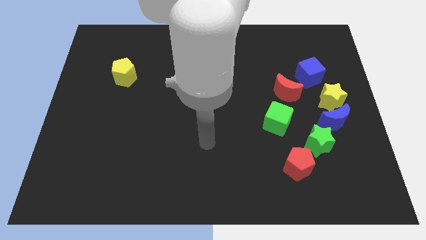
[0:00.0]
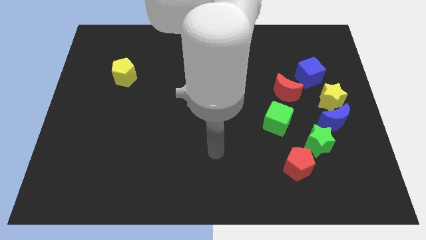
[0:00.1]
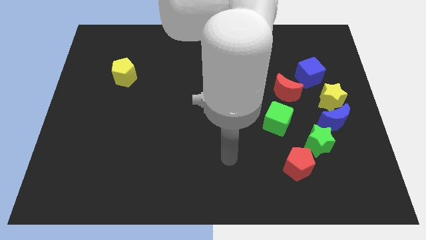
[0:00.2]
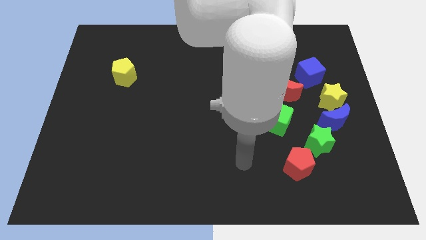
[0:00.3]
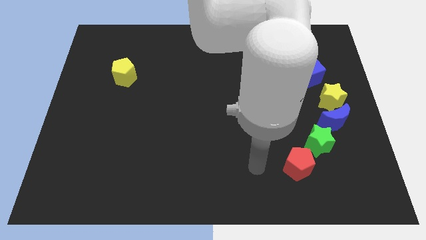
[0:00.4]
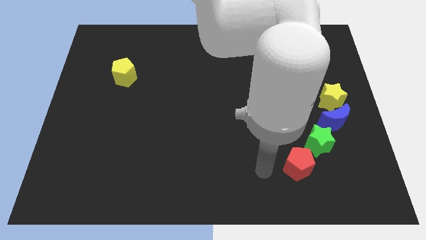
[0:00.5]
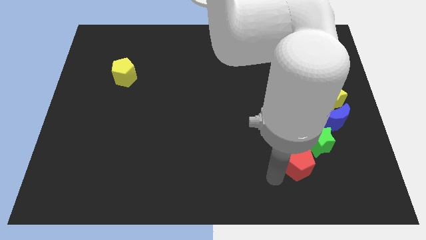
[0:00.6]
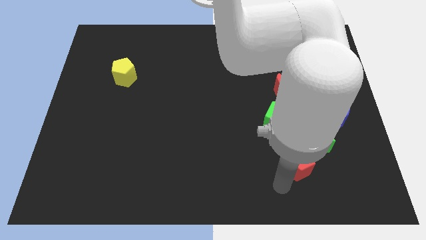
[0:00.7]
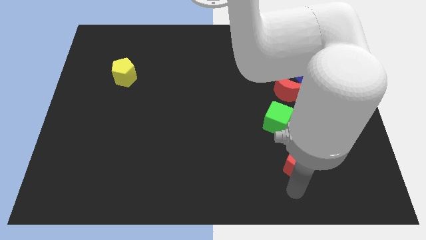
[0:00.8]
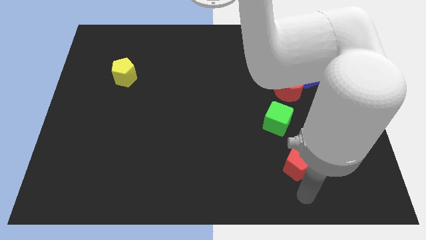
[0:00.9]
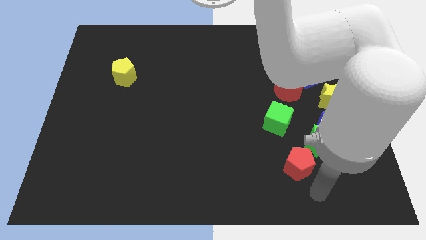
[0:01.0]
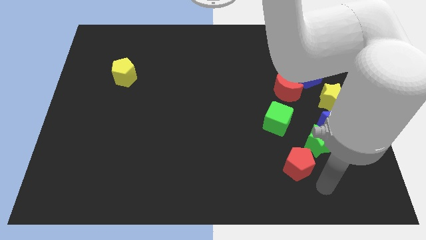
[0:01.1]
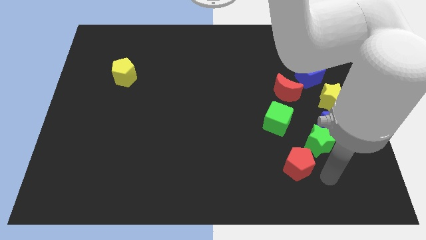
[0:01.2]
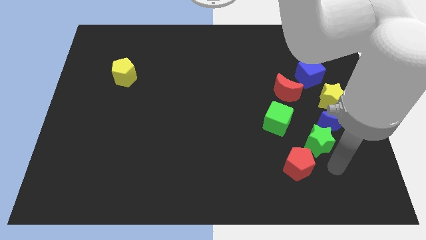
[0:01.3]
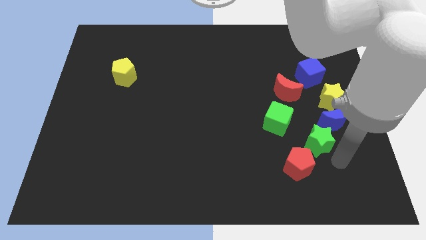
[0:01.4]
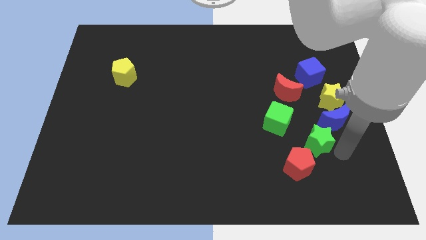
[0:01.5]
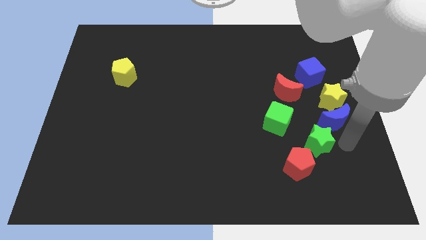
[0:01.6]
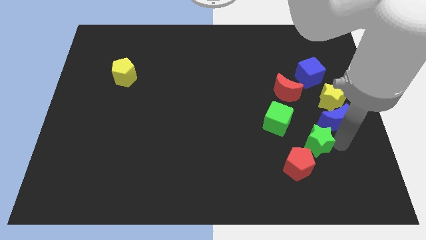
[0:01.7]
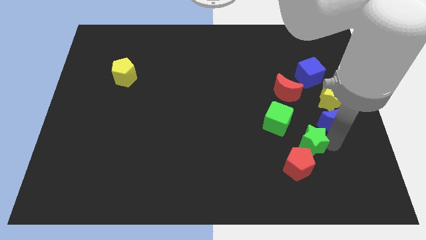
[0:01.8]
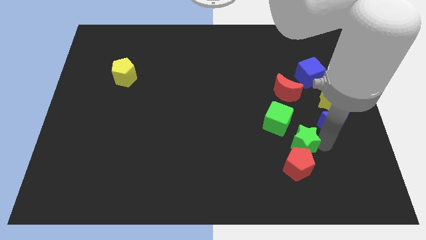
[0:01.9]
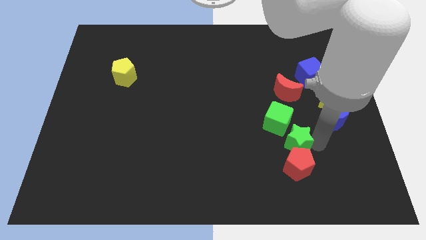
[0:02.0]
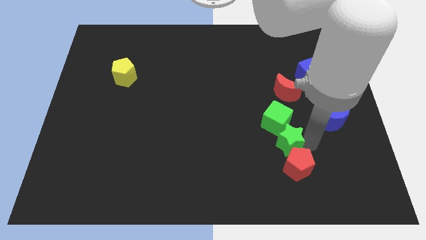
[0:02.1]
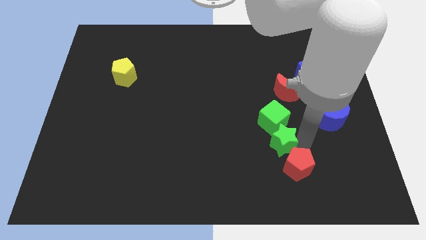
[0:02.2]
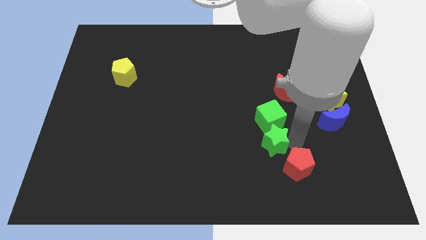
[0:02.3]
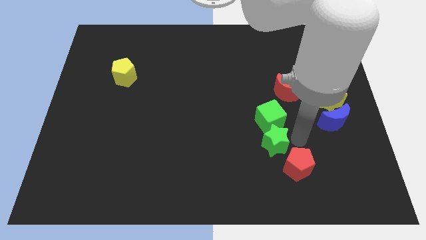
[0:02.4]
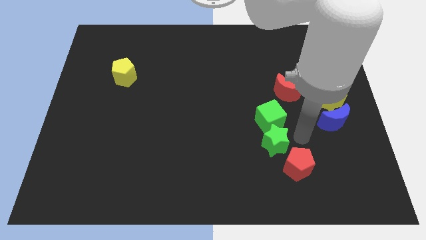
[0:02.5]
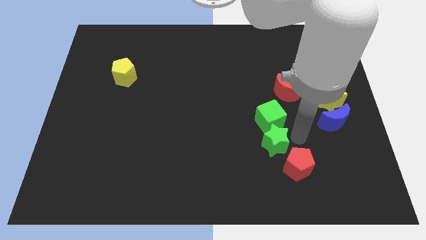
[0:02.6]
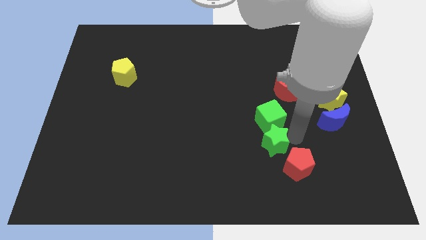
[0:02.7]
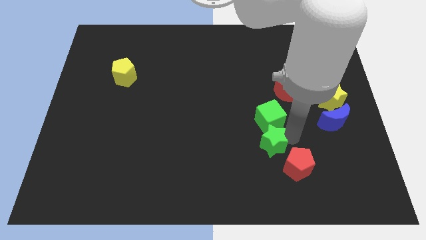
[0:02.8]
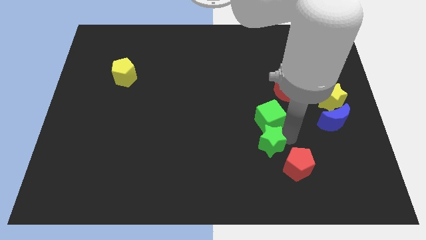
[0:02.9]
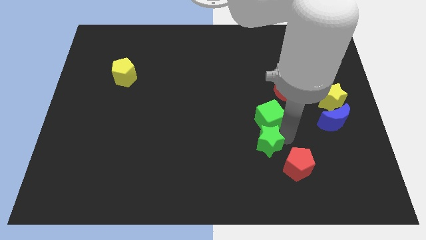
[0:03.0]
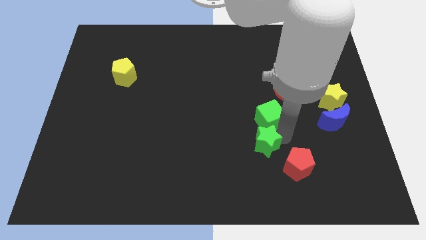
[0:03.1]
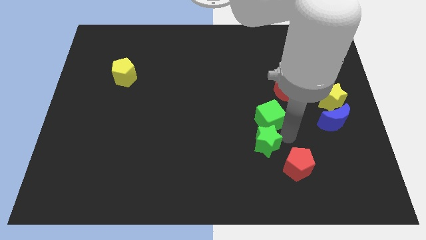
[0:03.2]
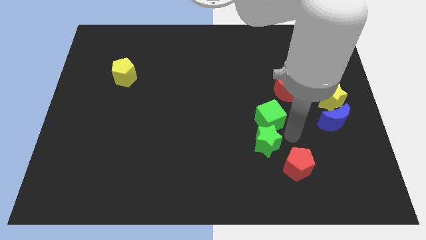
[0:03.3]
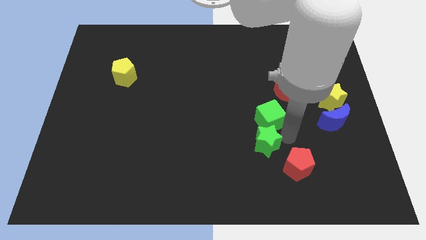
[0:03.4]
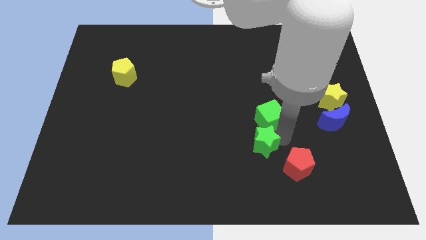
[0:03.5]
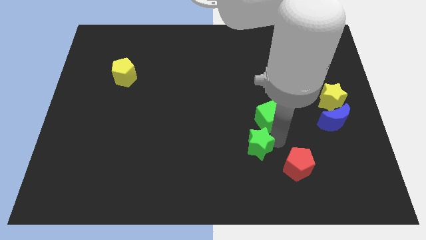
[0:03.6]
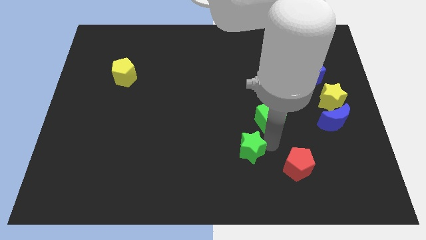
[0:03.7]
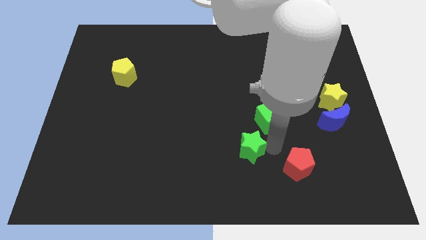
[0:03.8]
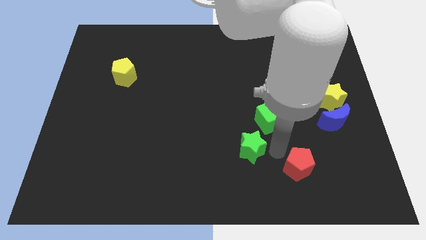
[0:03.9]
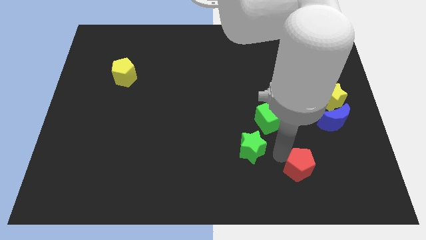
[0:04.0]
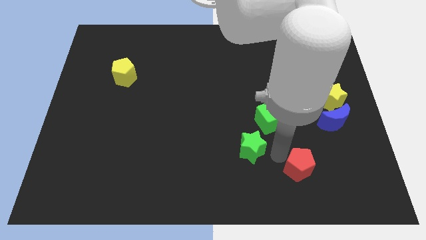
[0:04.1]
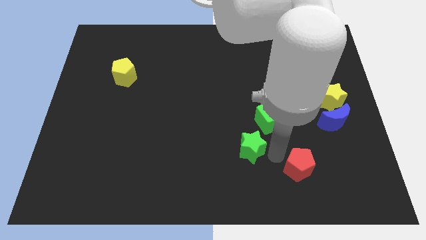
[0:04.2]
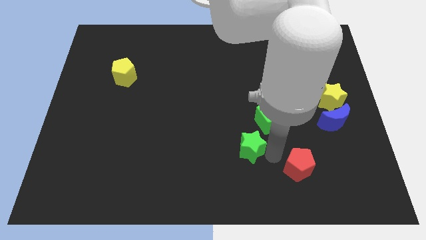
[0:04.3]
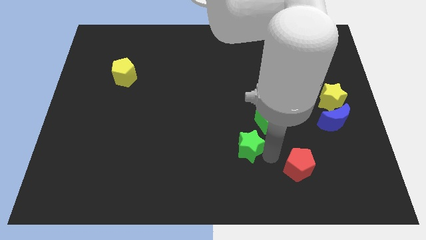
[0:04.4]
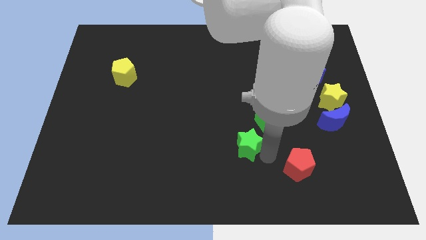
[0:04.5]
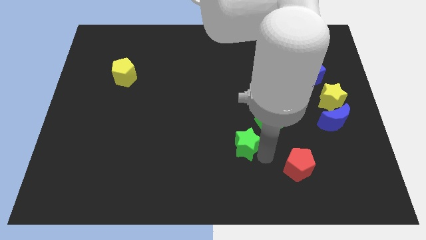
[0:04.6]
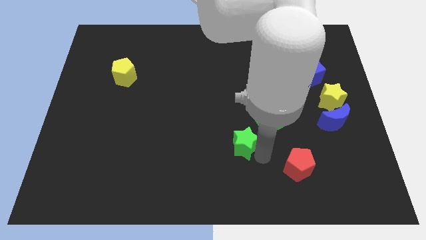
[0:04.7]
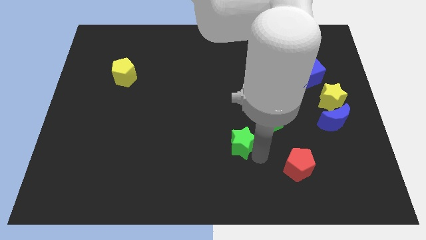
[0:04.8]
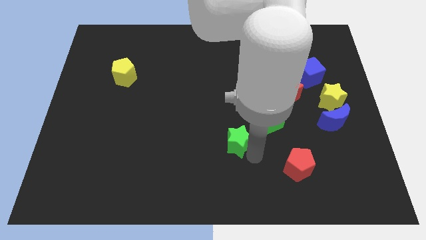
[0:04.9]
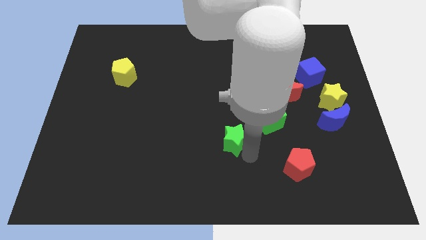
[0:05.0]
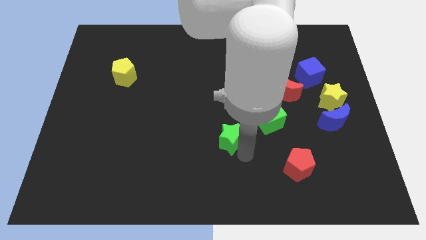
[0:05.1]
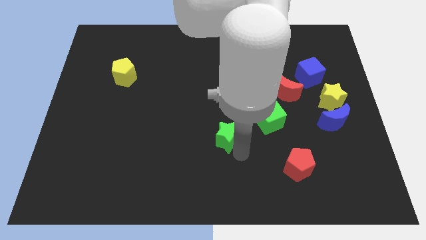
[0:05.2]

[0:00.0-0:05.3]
slide the green star left

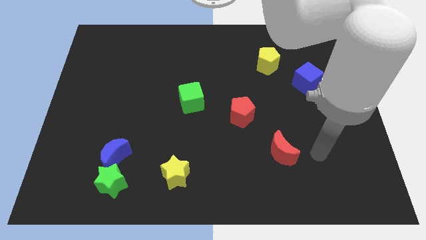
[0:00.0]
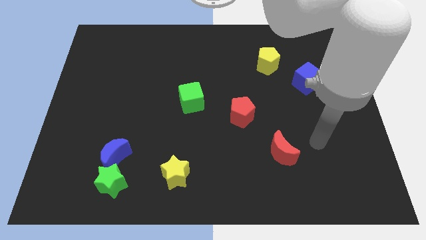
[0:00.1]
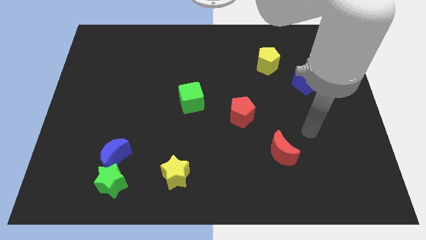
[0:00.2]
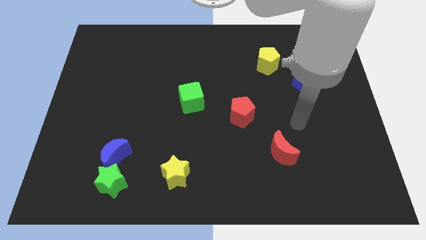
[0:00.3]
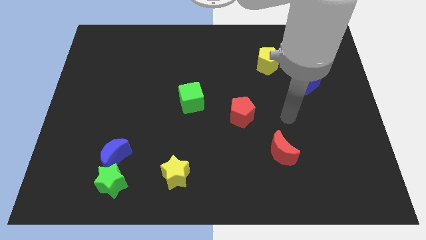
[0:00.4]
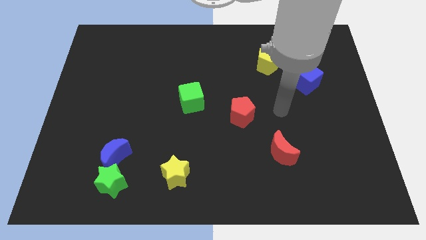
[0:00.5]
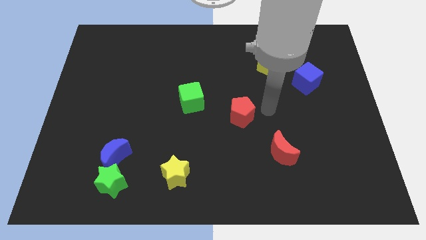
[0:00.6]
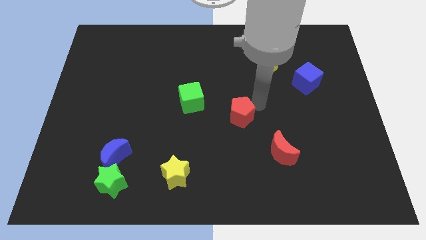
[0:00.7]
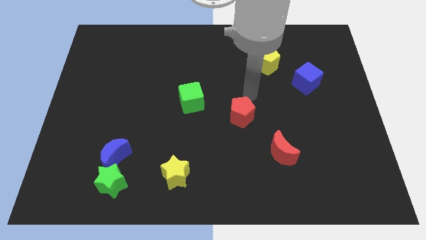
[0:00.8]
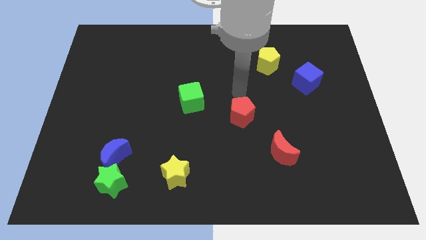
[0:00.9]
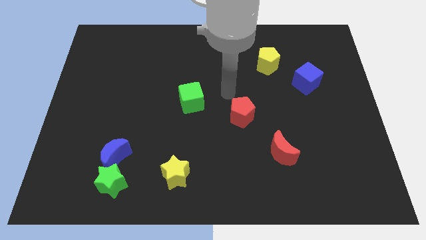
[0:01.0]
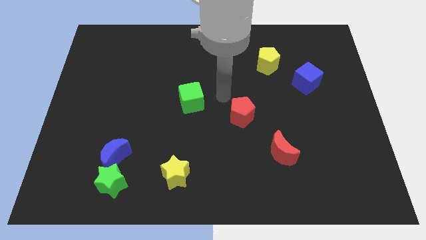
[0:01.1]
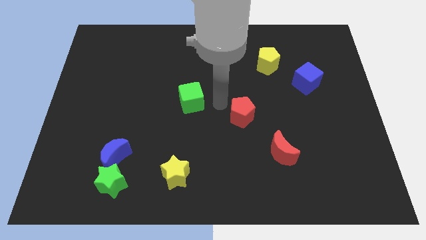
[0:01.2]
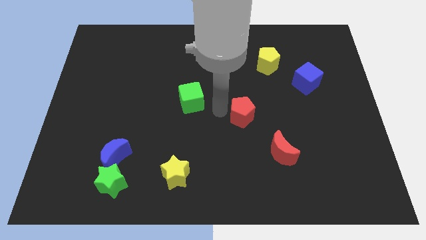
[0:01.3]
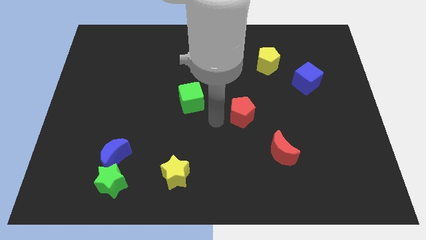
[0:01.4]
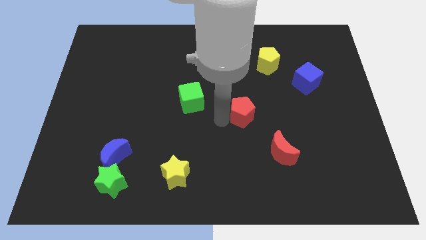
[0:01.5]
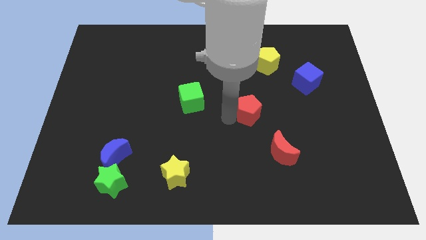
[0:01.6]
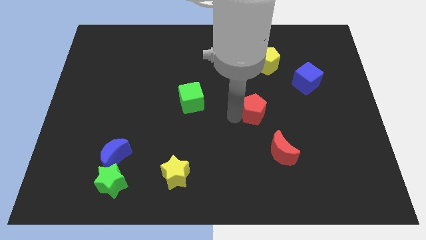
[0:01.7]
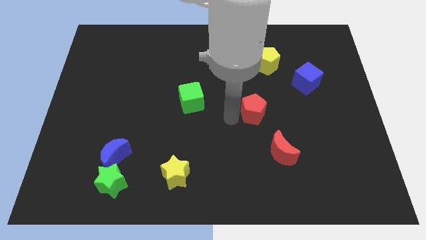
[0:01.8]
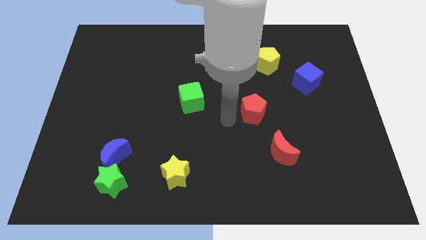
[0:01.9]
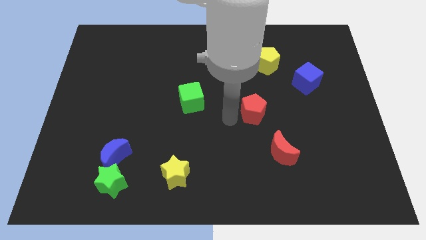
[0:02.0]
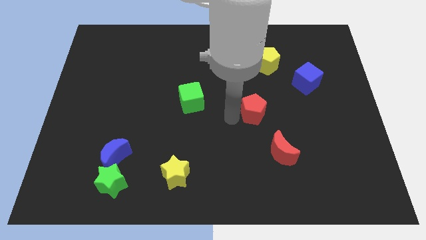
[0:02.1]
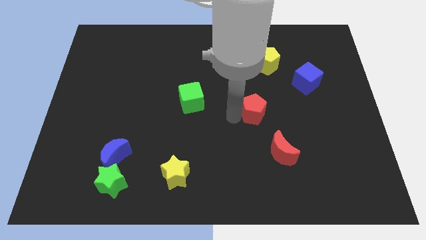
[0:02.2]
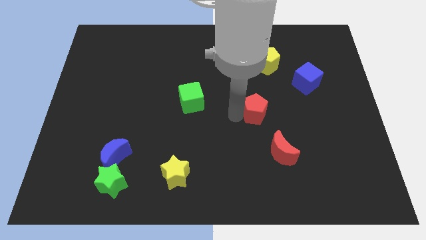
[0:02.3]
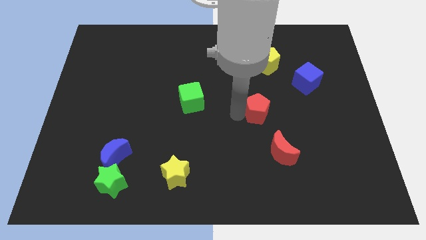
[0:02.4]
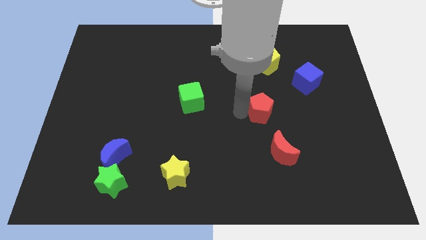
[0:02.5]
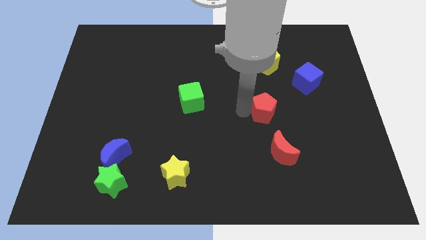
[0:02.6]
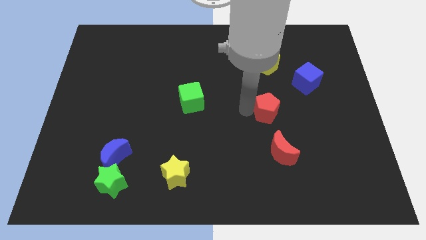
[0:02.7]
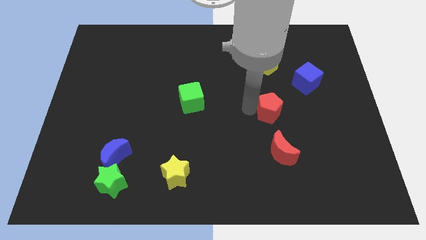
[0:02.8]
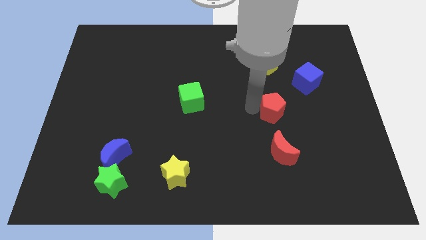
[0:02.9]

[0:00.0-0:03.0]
move the red pentagon a little right

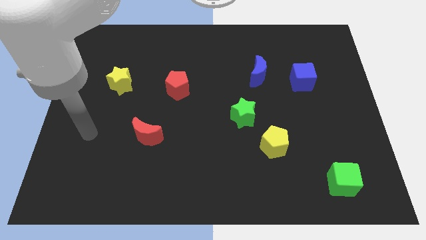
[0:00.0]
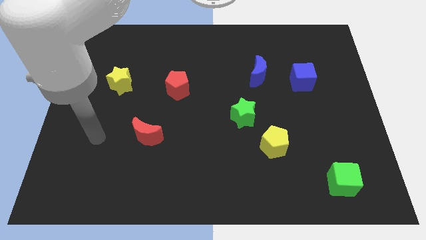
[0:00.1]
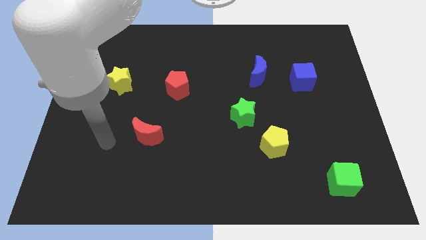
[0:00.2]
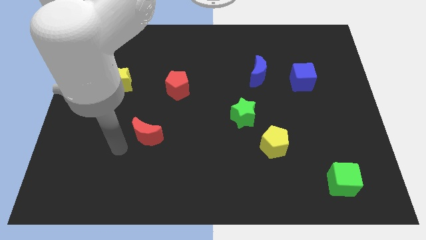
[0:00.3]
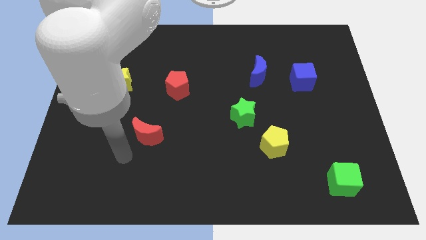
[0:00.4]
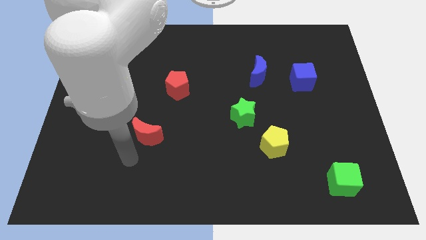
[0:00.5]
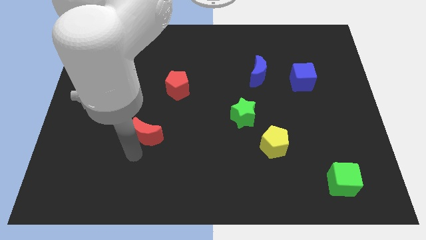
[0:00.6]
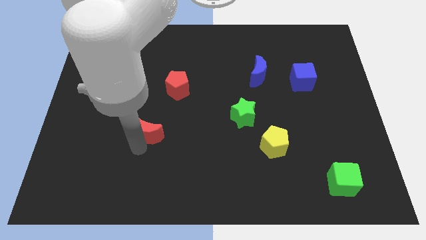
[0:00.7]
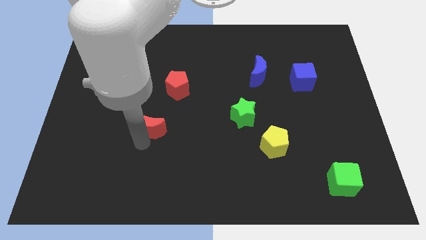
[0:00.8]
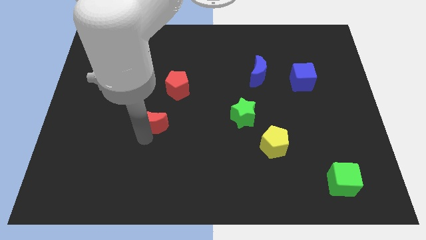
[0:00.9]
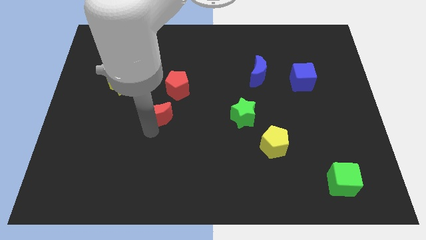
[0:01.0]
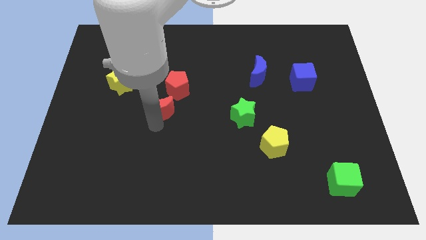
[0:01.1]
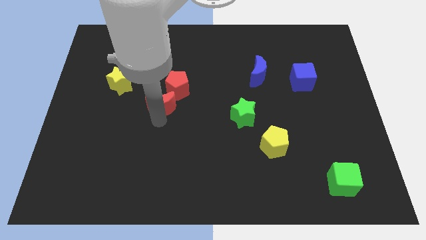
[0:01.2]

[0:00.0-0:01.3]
slide the red moon up a bit
